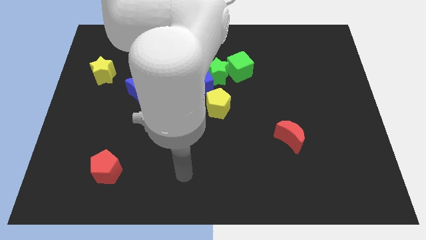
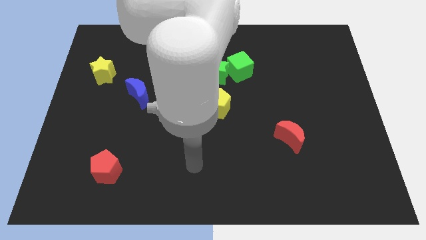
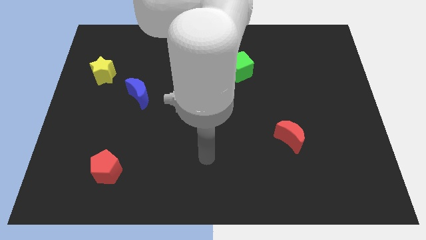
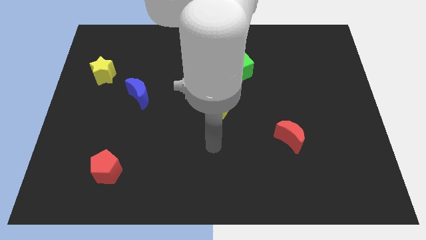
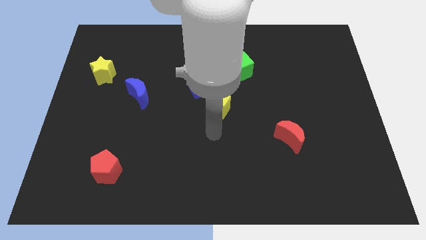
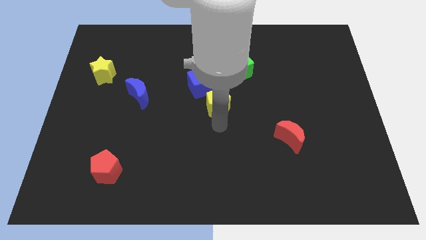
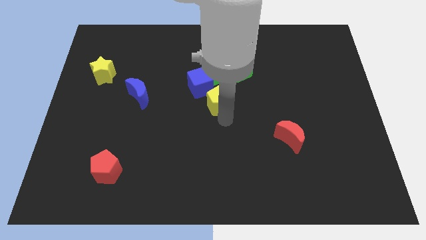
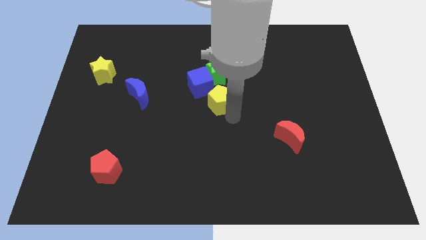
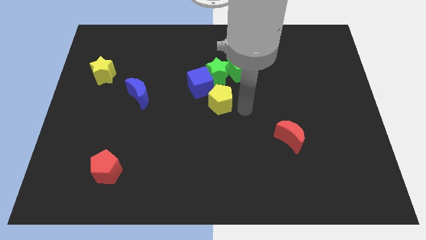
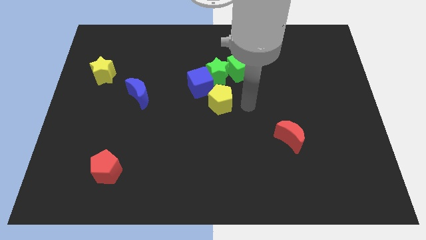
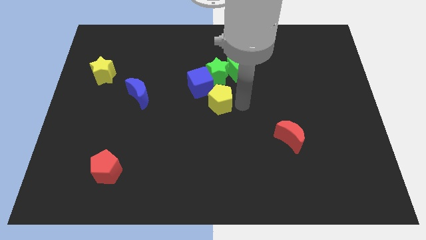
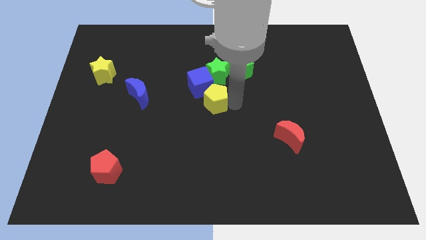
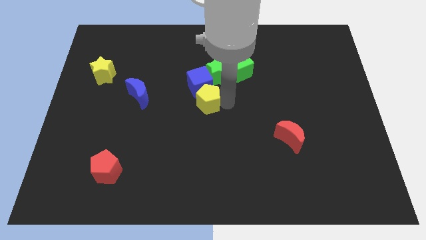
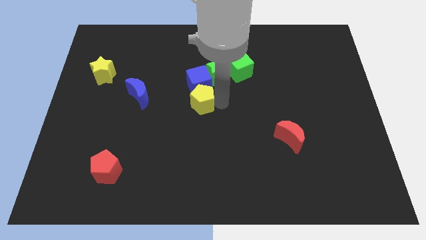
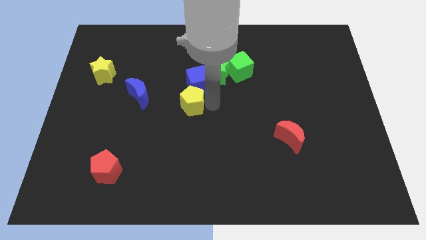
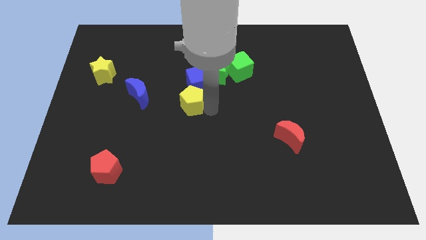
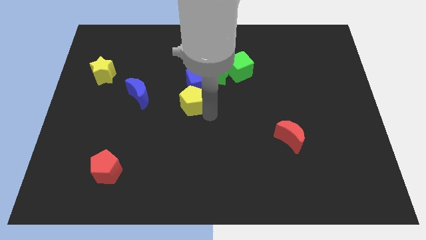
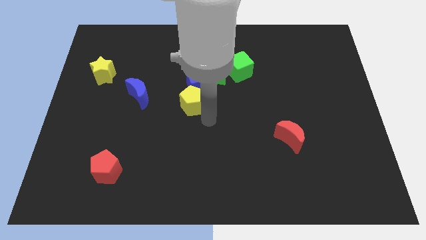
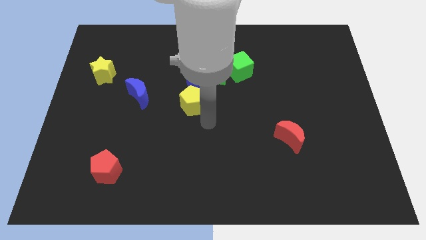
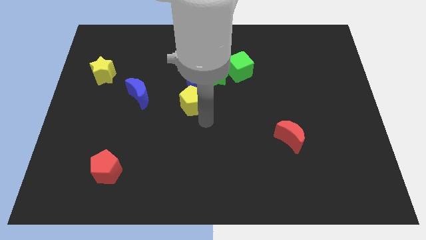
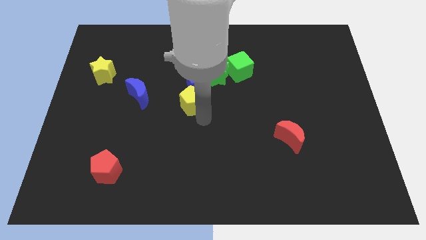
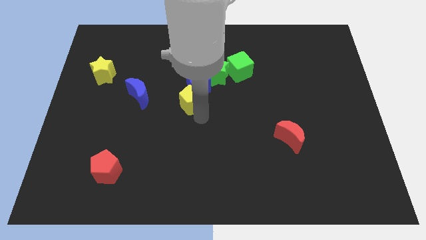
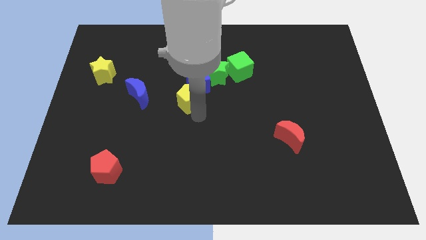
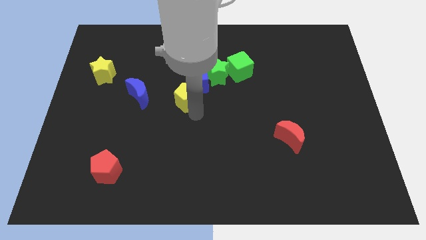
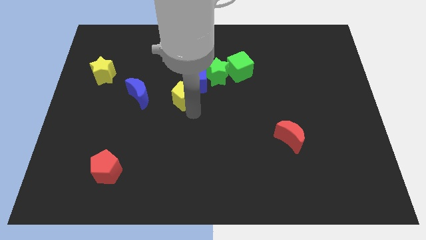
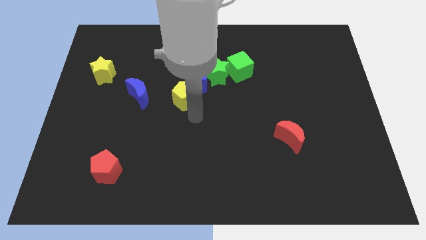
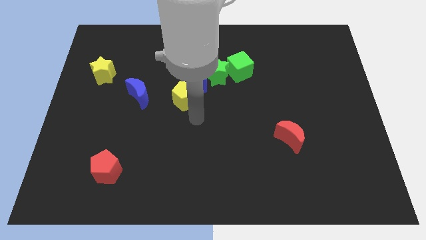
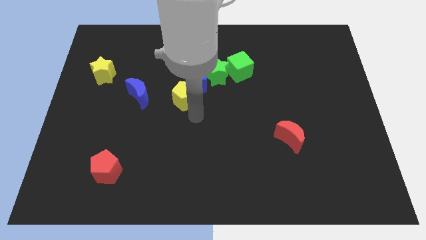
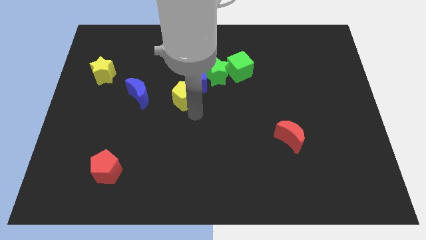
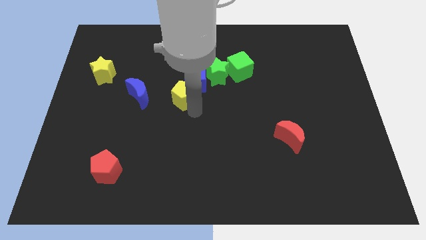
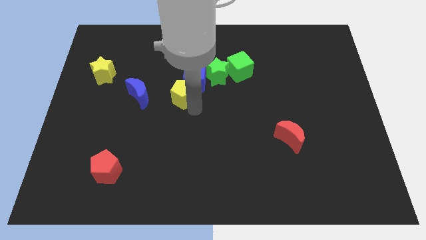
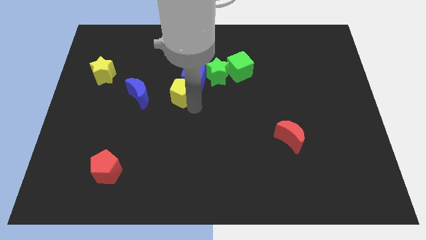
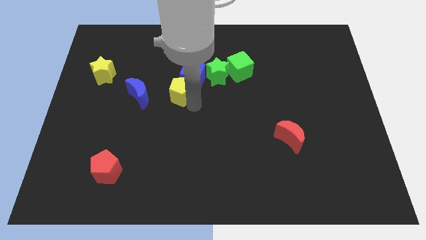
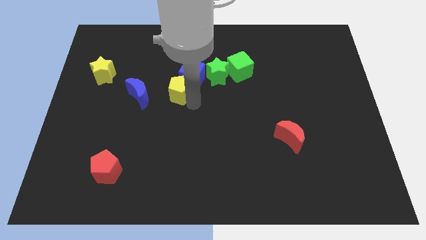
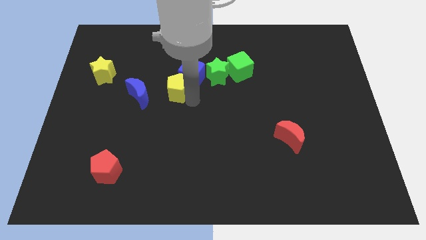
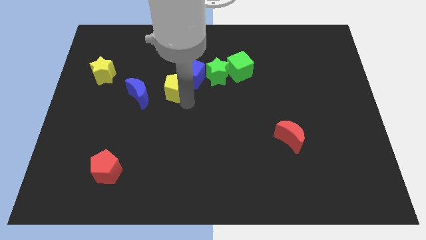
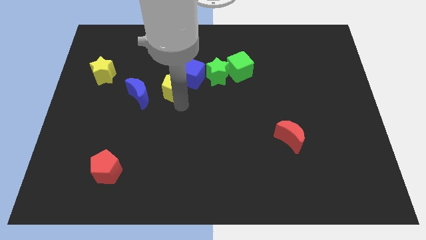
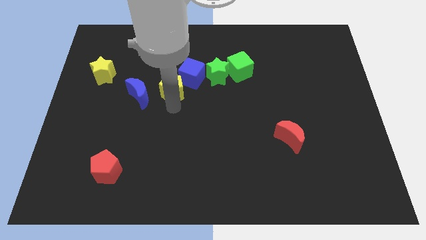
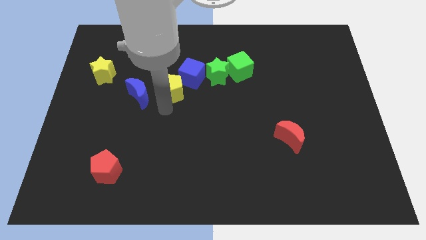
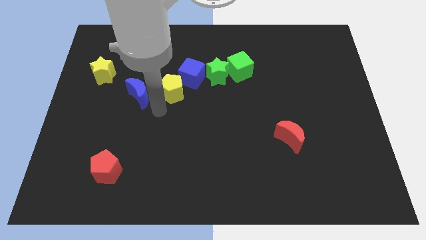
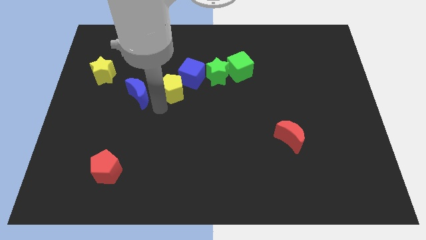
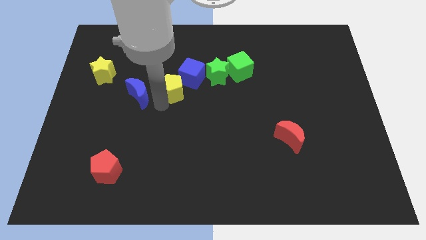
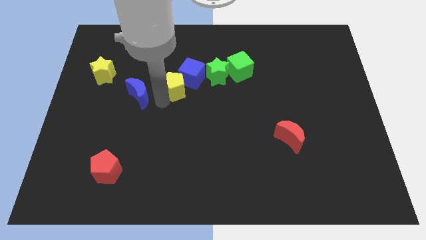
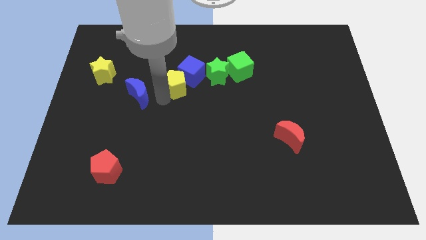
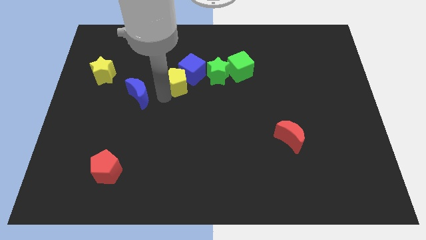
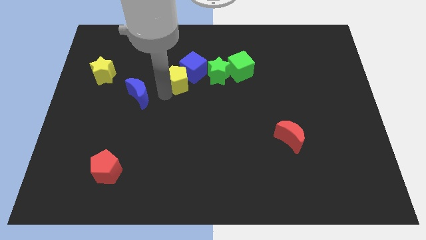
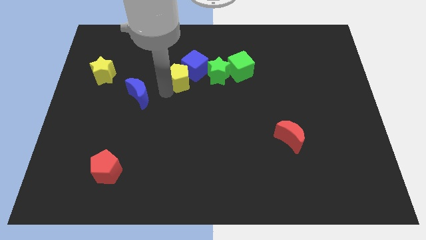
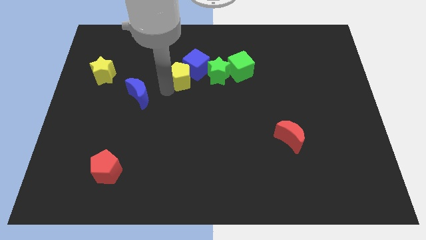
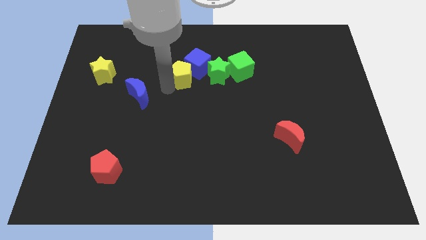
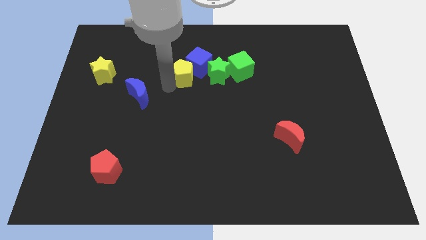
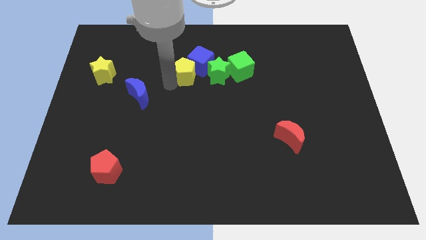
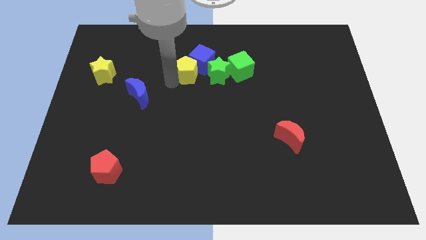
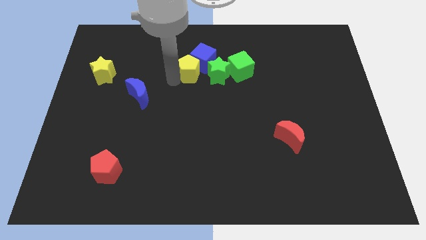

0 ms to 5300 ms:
move the yellow pentagon to the top left of the green star

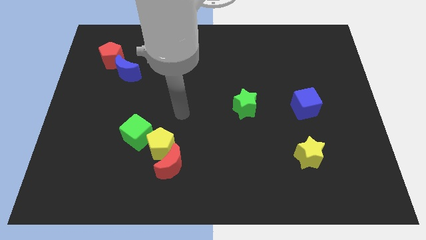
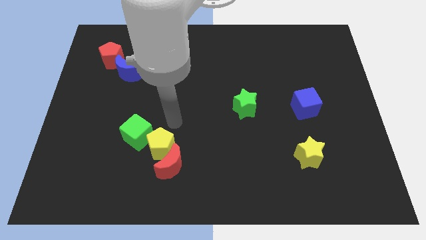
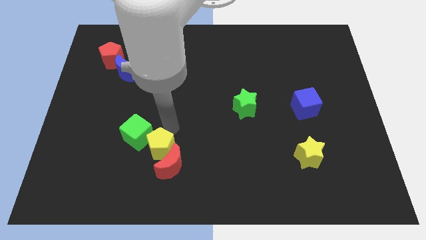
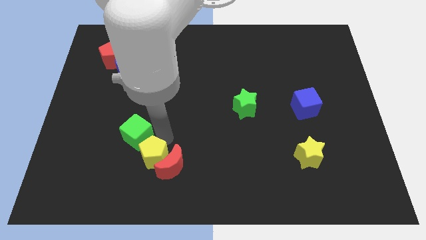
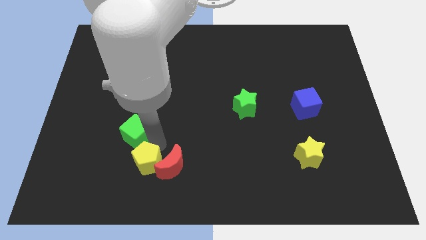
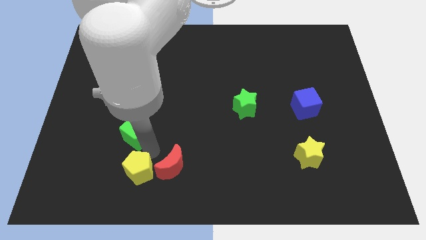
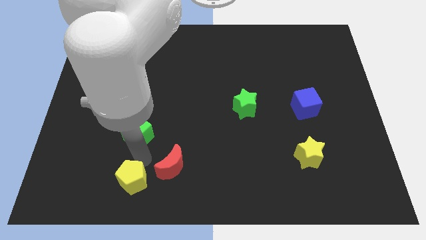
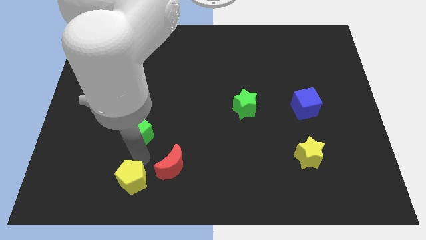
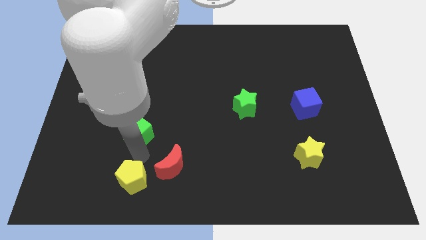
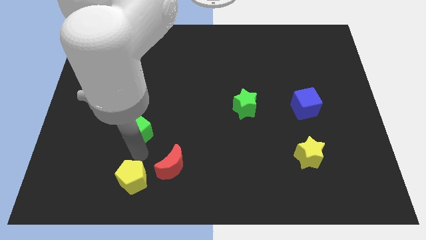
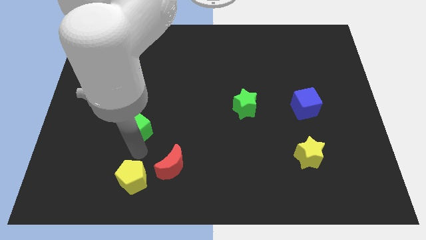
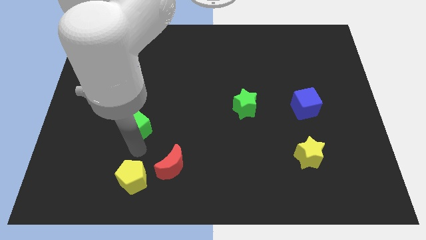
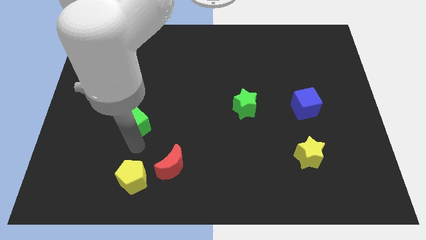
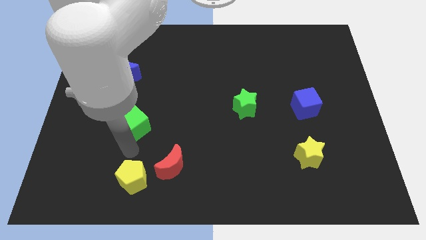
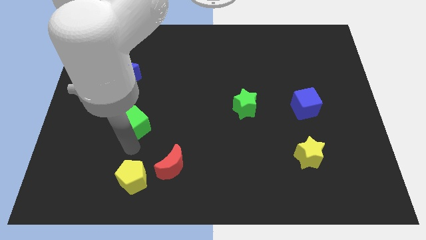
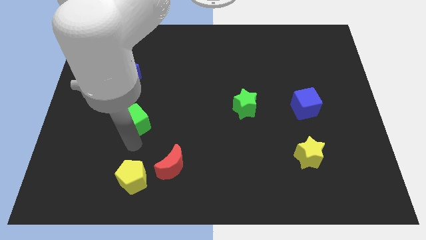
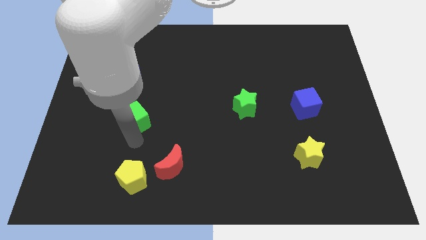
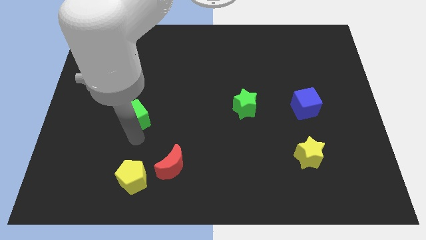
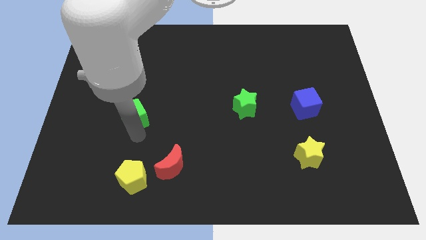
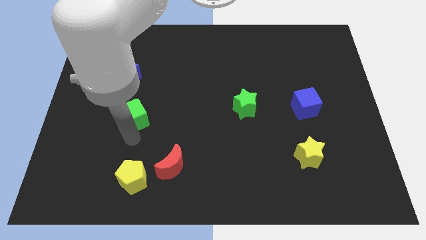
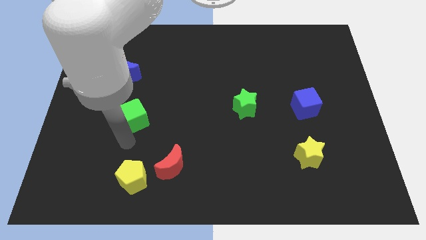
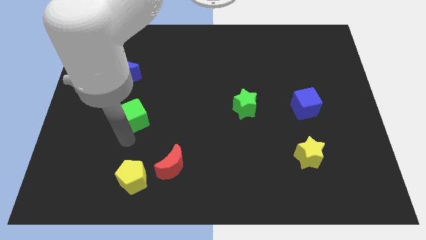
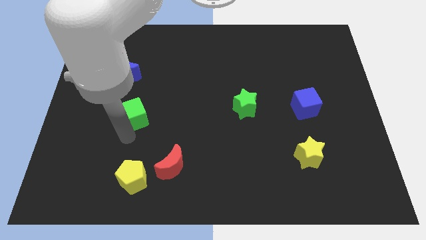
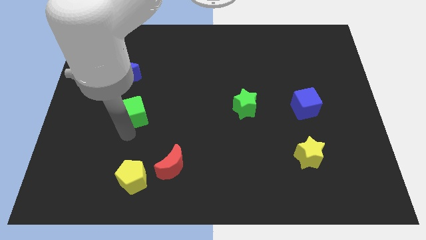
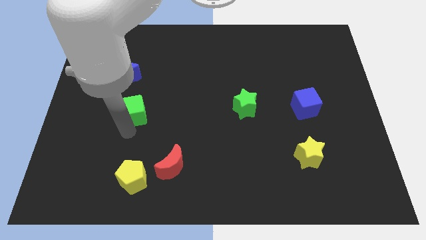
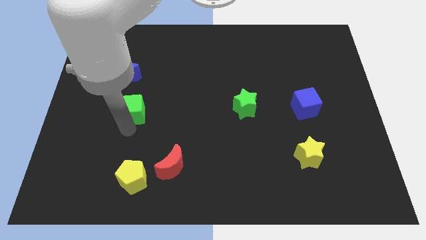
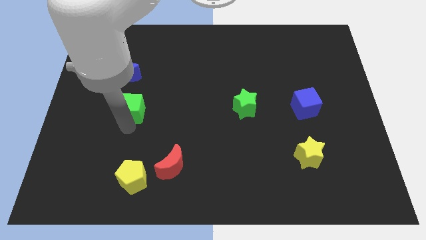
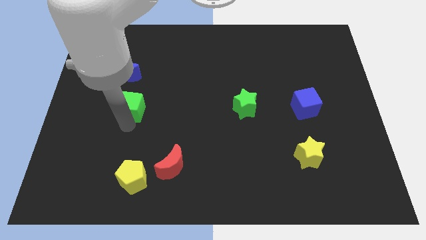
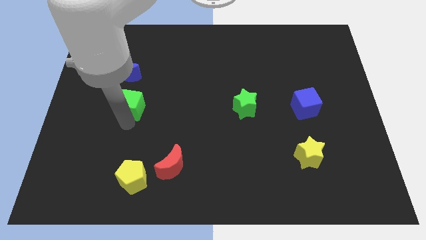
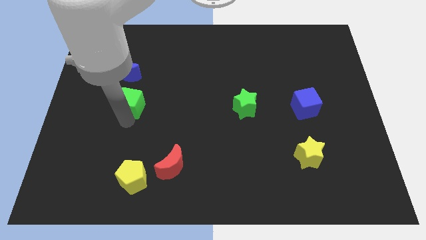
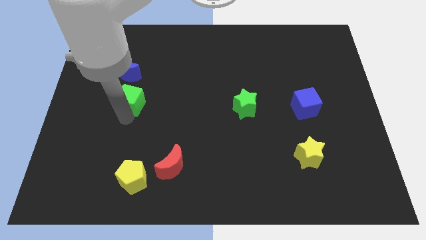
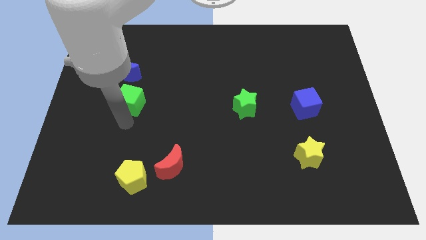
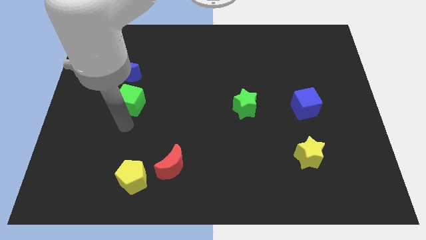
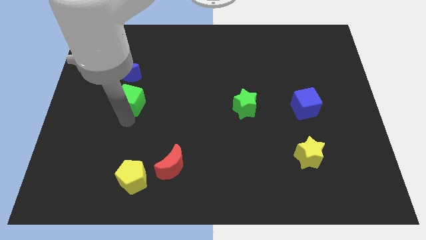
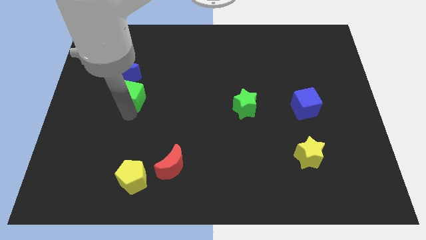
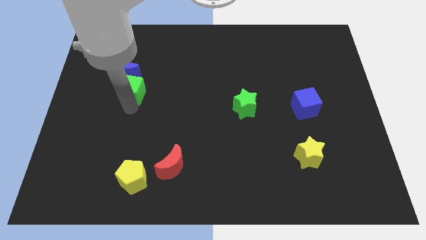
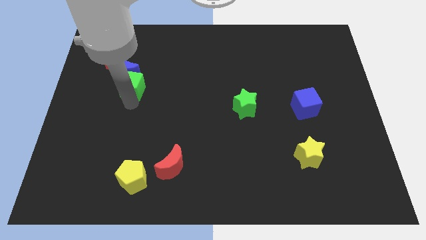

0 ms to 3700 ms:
push the green cube to the bottom right side of the red pentagon
